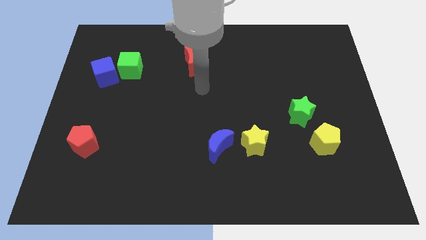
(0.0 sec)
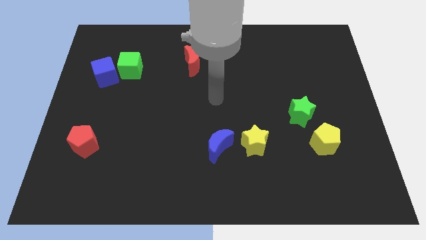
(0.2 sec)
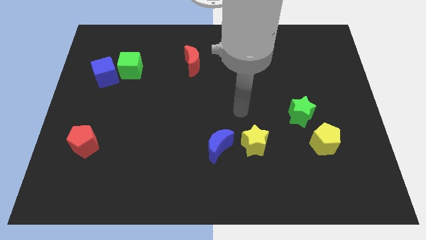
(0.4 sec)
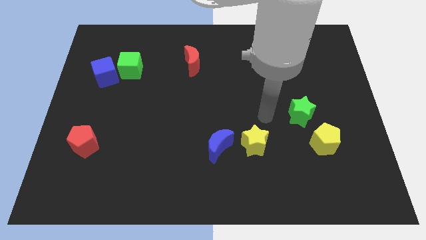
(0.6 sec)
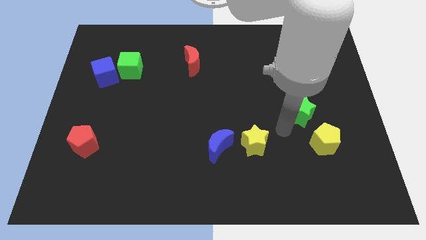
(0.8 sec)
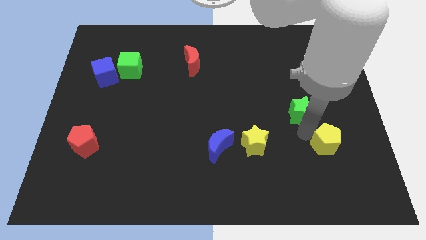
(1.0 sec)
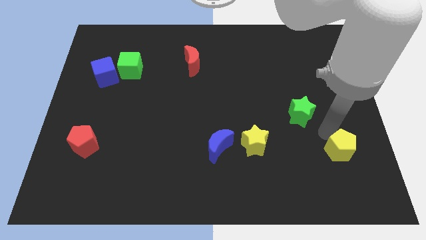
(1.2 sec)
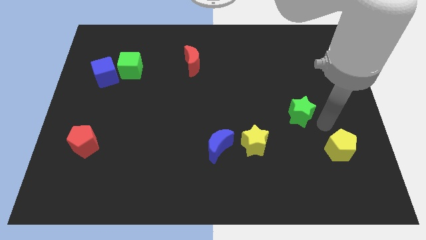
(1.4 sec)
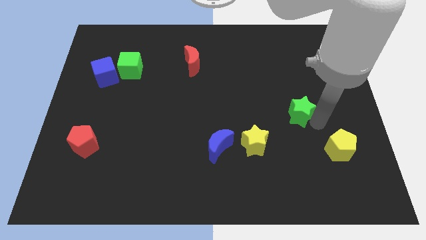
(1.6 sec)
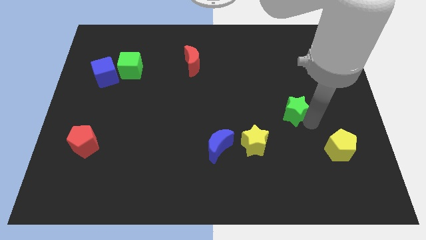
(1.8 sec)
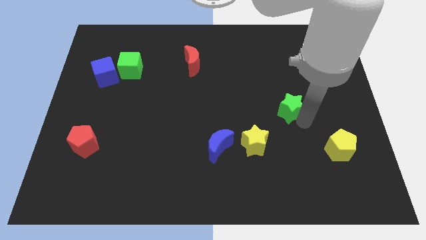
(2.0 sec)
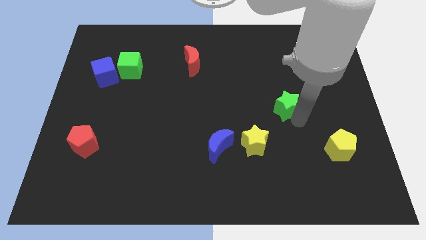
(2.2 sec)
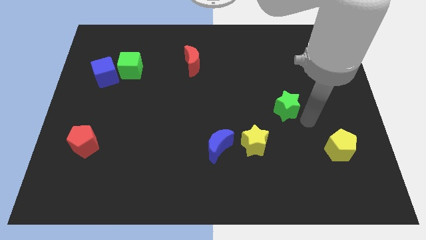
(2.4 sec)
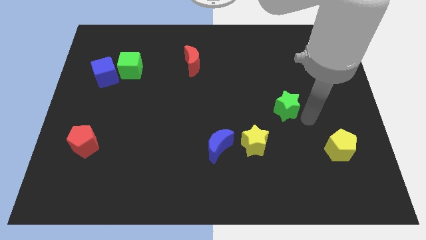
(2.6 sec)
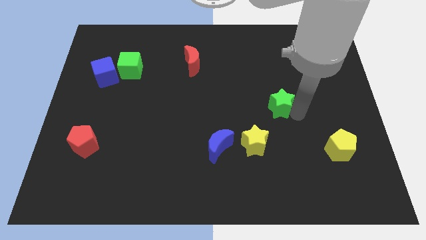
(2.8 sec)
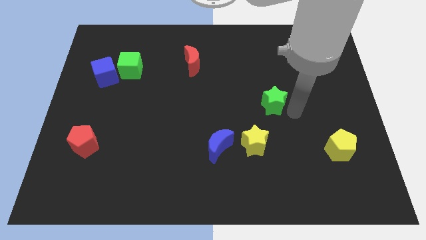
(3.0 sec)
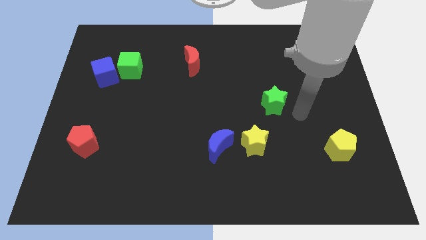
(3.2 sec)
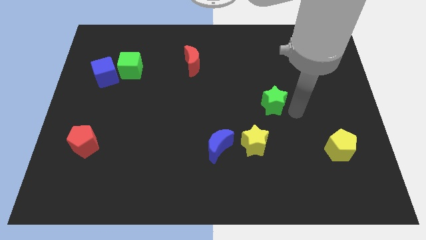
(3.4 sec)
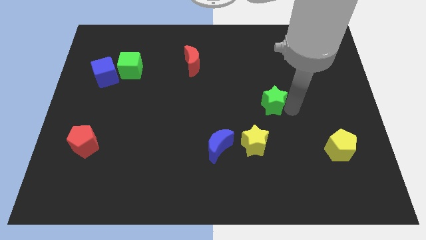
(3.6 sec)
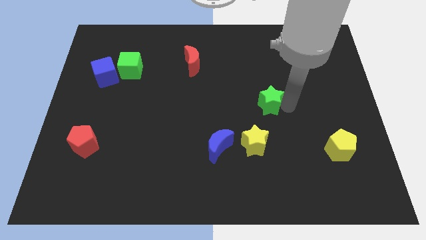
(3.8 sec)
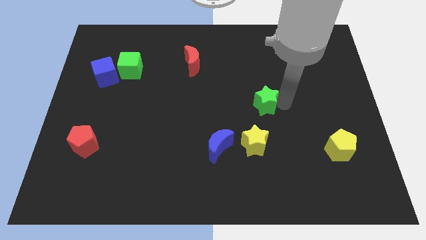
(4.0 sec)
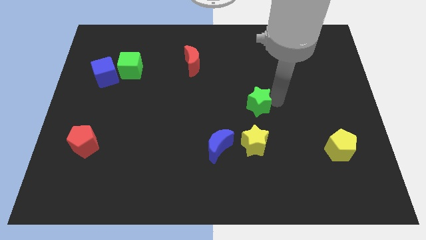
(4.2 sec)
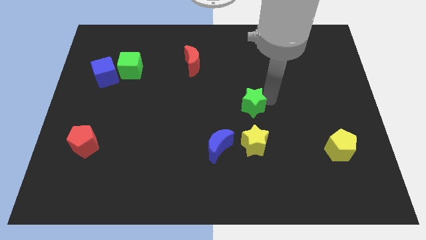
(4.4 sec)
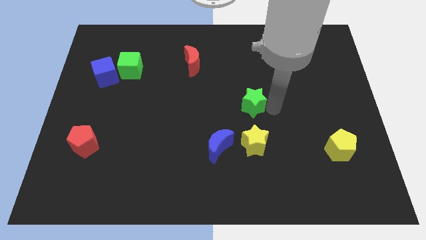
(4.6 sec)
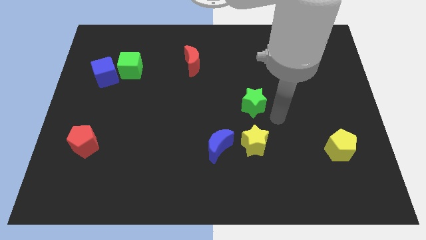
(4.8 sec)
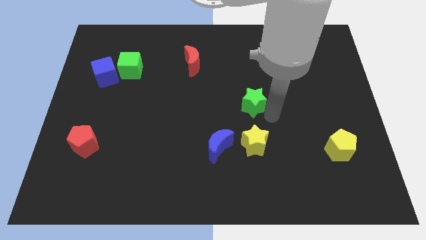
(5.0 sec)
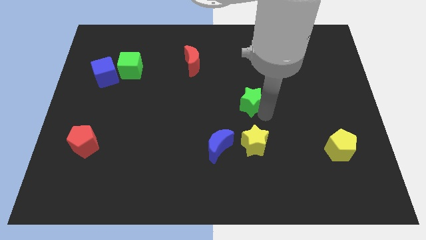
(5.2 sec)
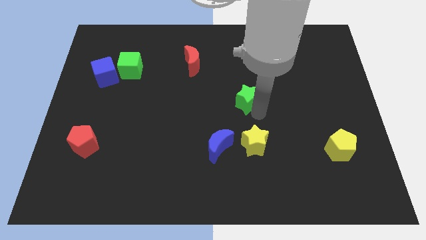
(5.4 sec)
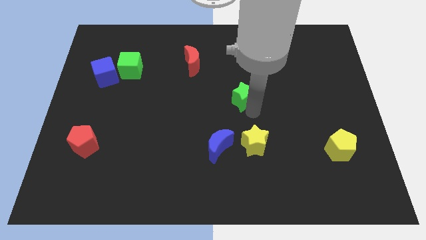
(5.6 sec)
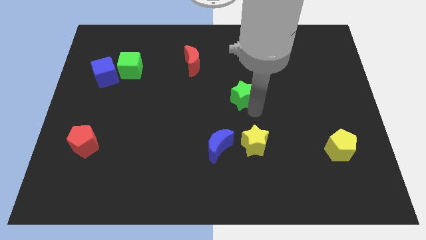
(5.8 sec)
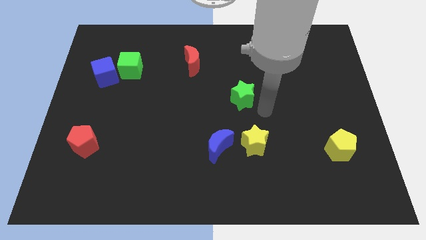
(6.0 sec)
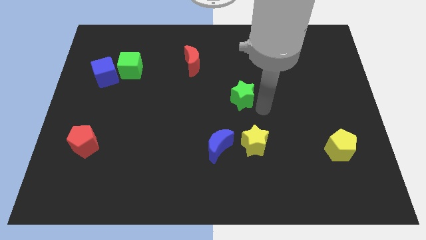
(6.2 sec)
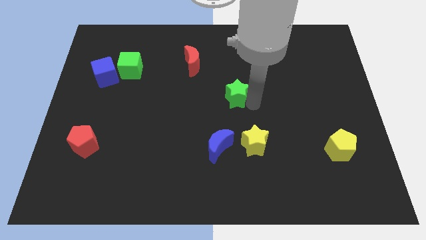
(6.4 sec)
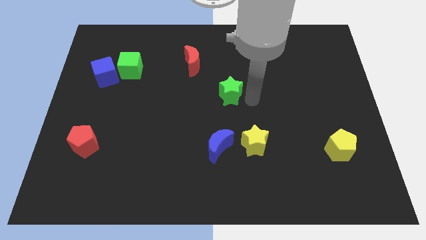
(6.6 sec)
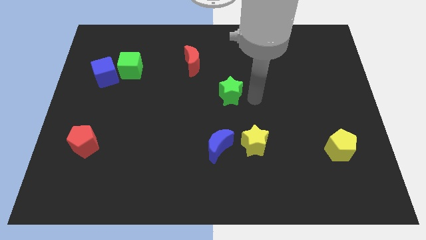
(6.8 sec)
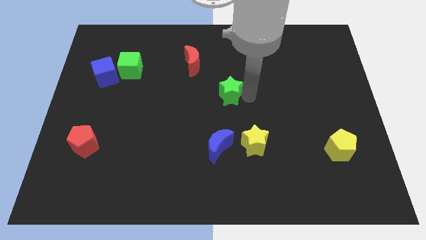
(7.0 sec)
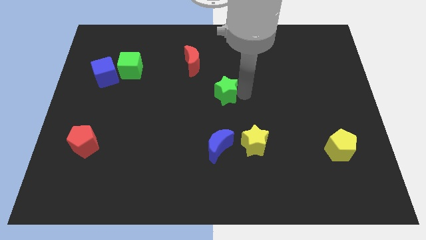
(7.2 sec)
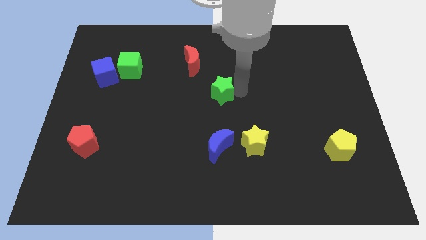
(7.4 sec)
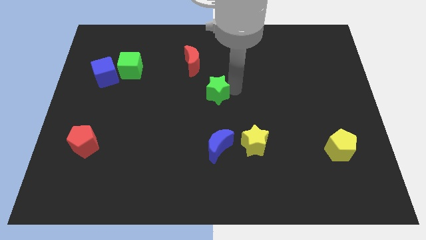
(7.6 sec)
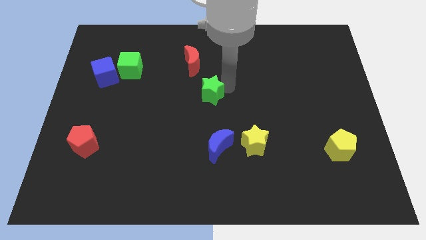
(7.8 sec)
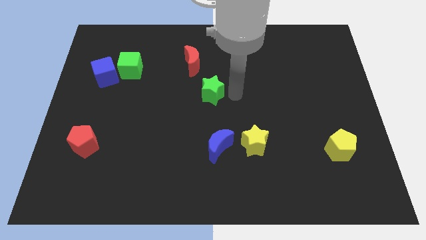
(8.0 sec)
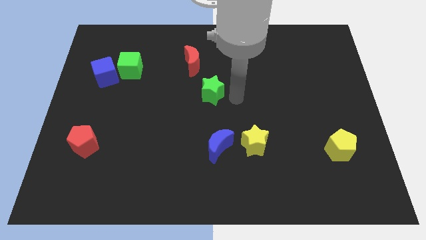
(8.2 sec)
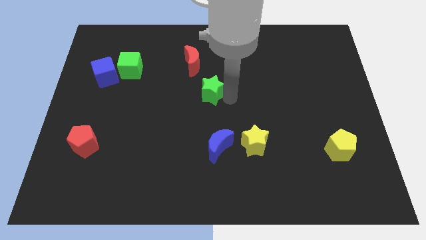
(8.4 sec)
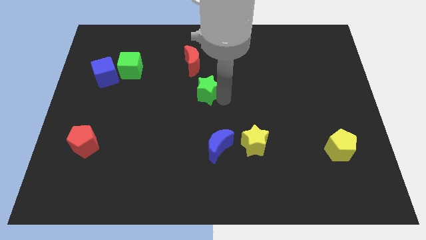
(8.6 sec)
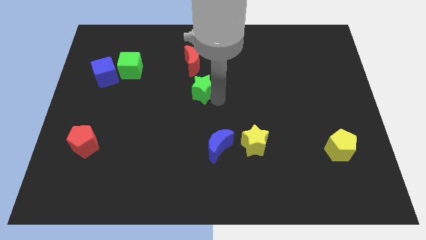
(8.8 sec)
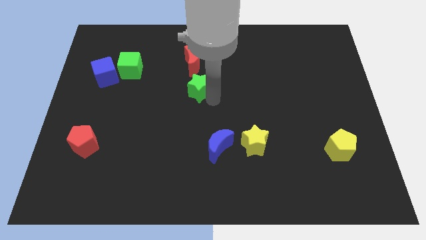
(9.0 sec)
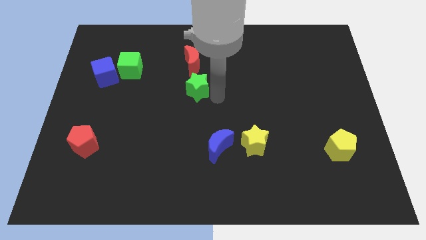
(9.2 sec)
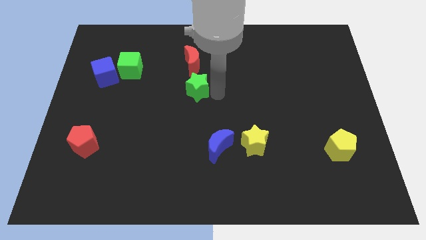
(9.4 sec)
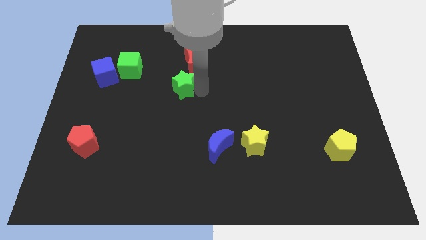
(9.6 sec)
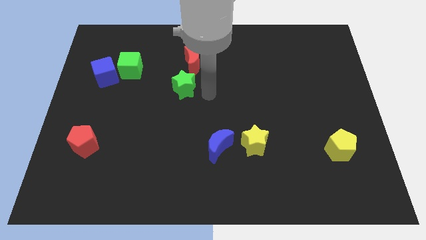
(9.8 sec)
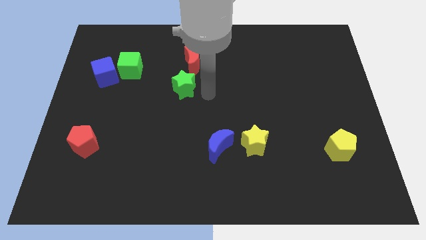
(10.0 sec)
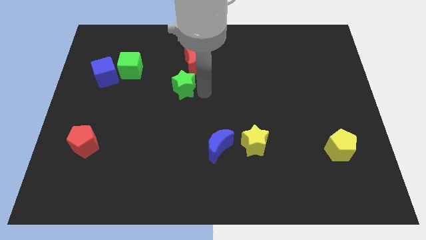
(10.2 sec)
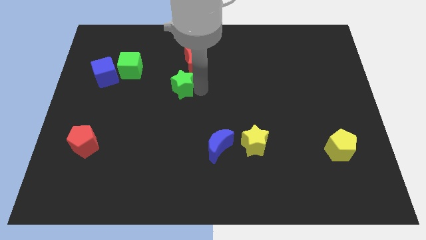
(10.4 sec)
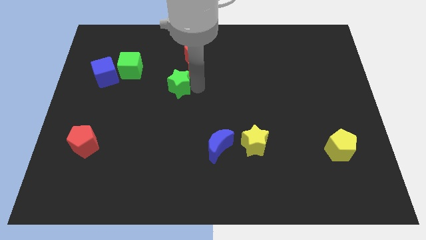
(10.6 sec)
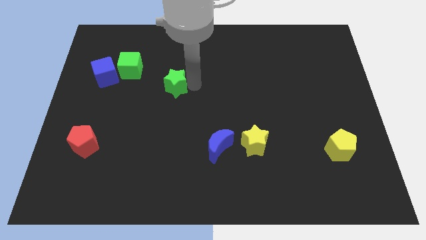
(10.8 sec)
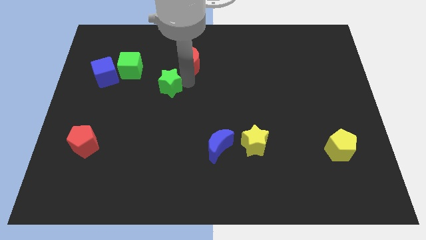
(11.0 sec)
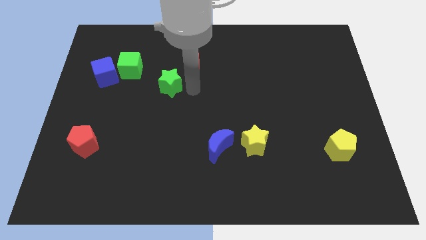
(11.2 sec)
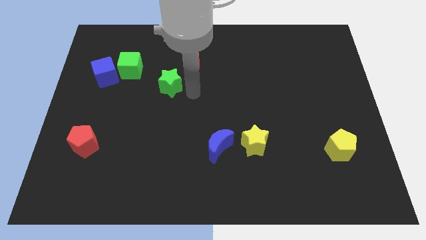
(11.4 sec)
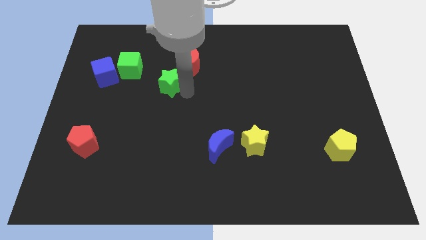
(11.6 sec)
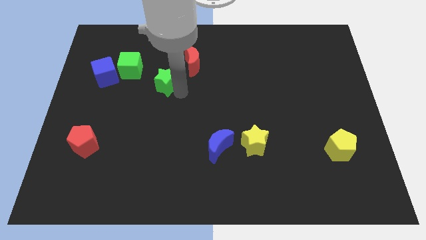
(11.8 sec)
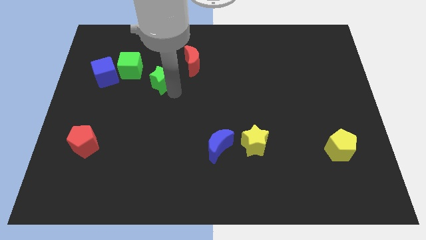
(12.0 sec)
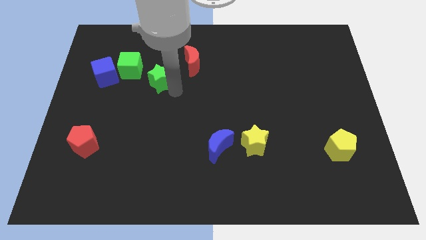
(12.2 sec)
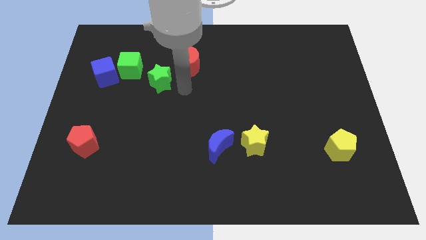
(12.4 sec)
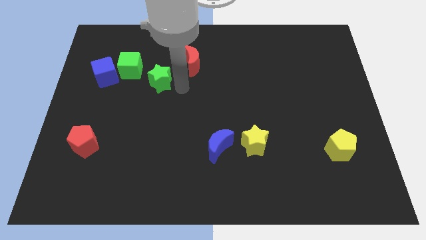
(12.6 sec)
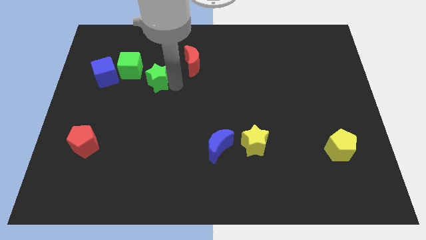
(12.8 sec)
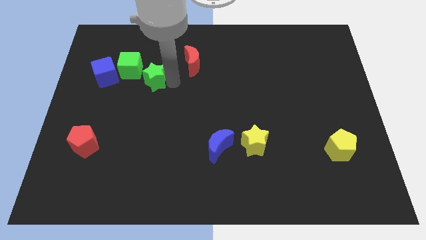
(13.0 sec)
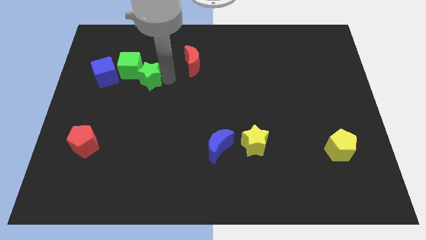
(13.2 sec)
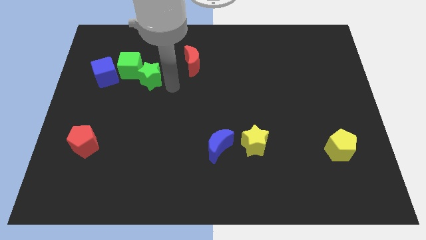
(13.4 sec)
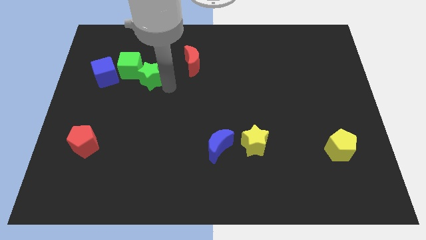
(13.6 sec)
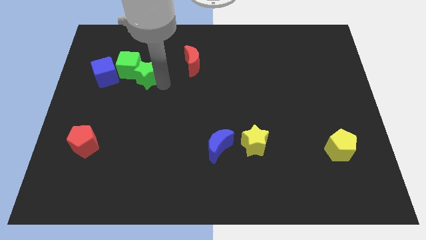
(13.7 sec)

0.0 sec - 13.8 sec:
put the green star next to the green cube

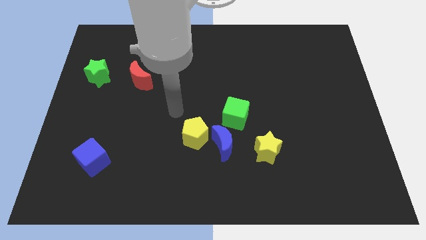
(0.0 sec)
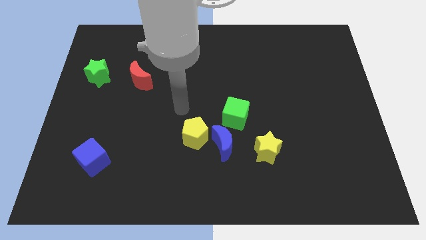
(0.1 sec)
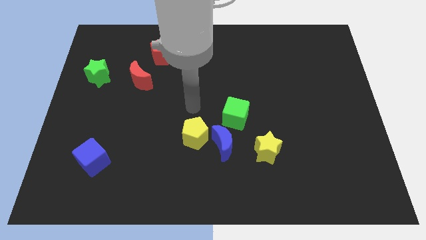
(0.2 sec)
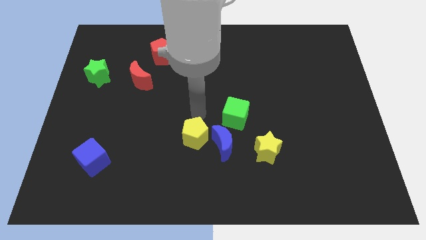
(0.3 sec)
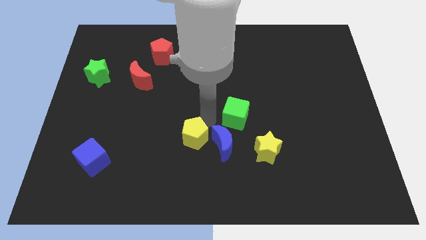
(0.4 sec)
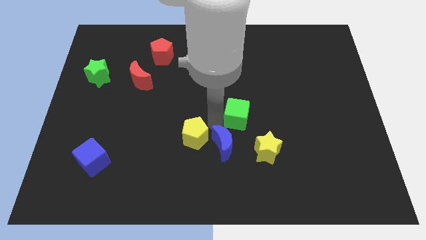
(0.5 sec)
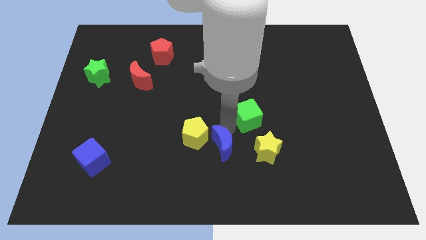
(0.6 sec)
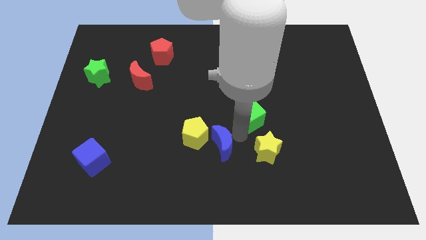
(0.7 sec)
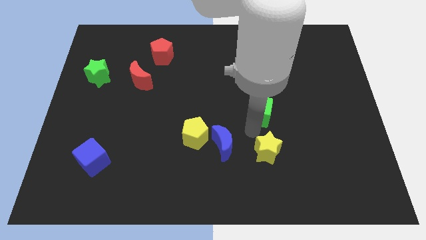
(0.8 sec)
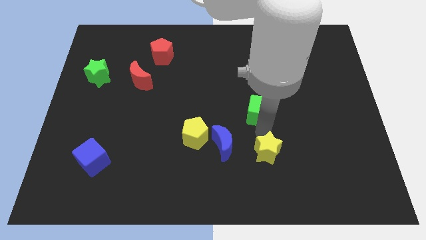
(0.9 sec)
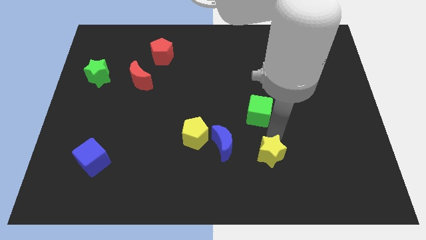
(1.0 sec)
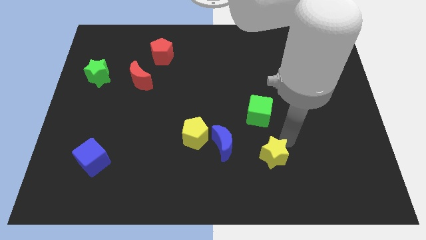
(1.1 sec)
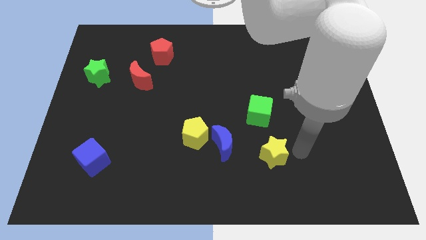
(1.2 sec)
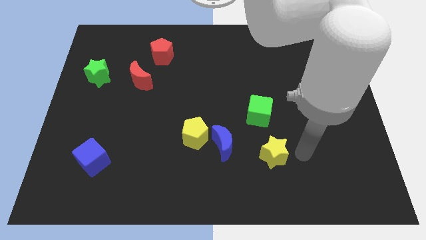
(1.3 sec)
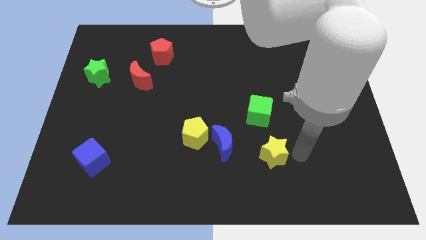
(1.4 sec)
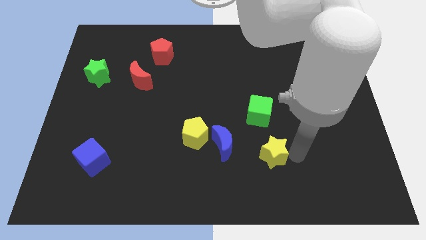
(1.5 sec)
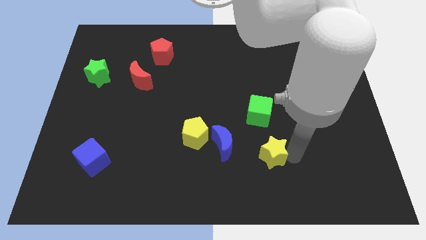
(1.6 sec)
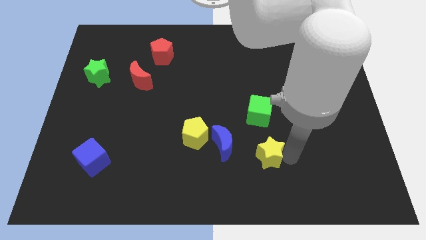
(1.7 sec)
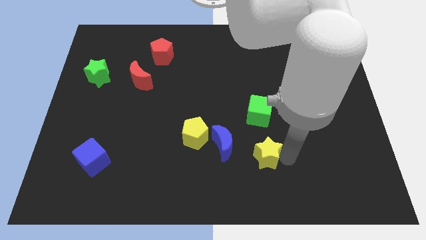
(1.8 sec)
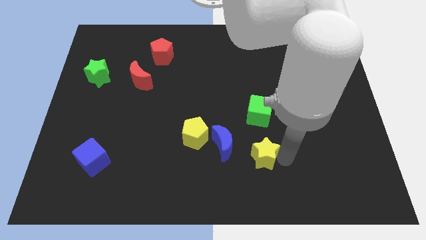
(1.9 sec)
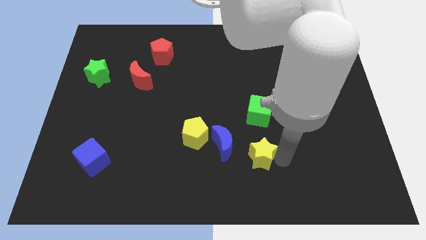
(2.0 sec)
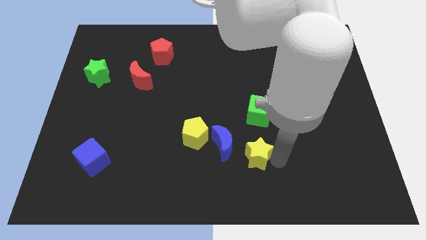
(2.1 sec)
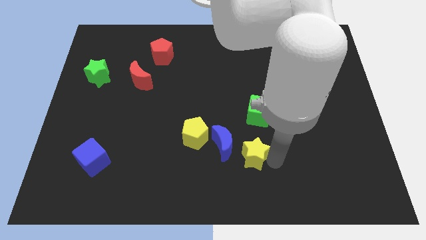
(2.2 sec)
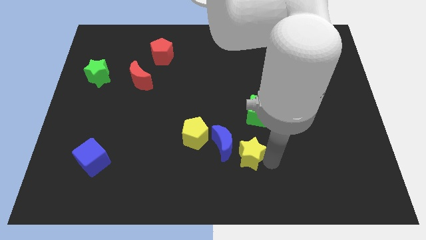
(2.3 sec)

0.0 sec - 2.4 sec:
slide the yellow star to the blue moon
